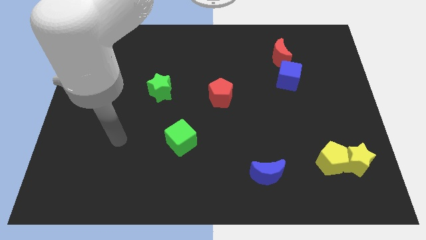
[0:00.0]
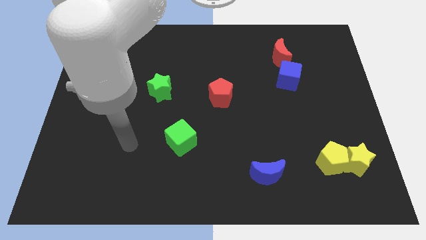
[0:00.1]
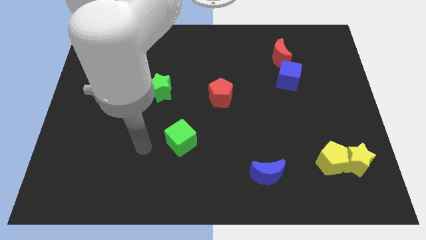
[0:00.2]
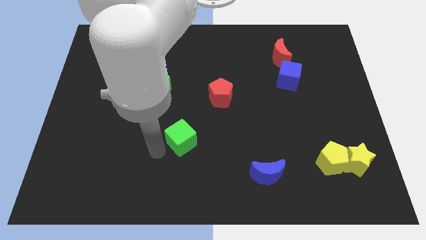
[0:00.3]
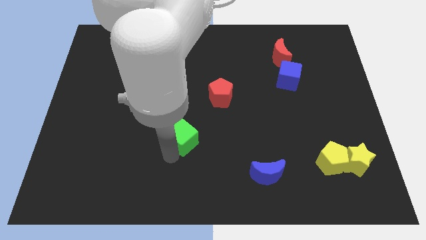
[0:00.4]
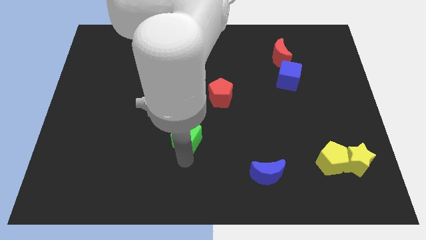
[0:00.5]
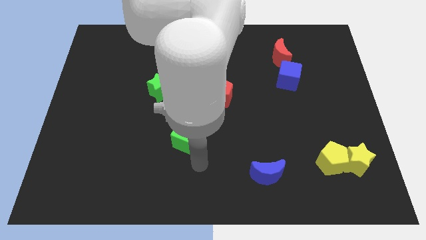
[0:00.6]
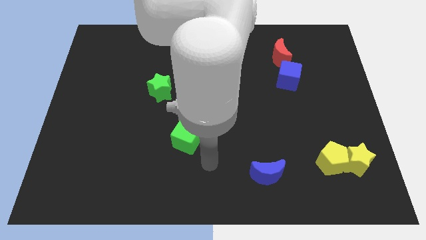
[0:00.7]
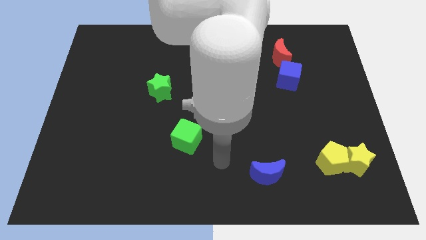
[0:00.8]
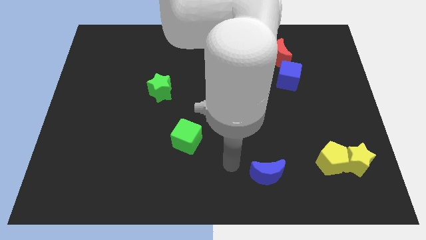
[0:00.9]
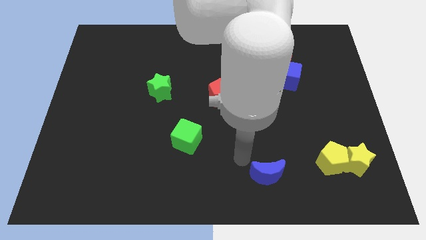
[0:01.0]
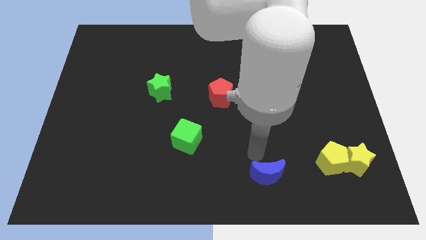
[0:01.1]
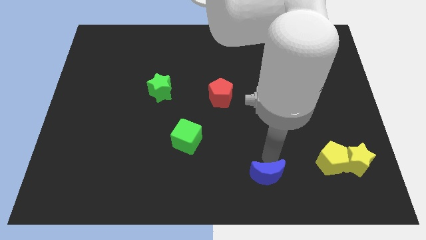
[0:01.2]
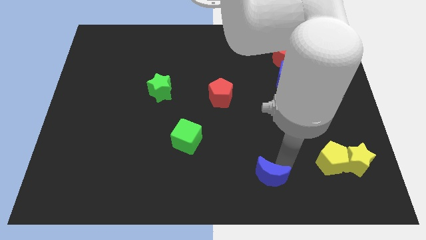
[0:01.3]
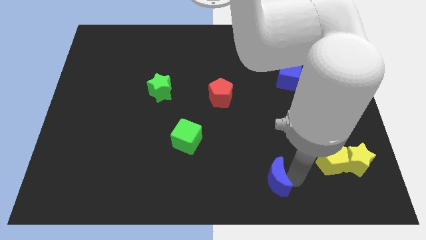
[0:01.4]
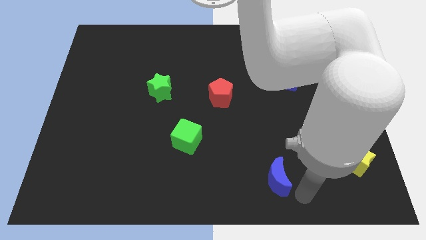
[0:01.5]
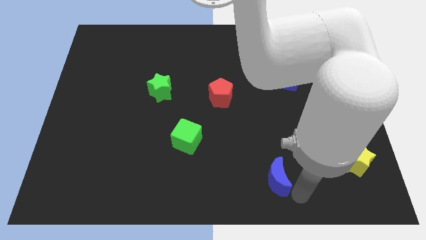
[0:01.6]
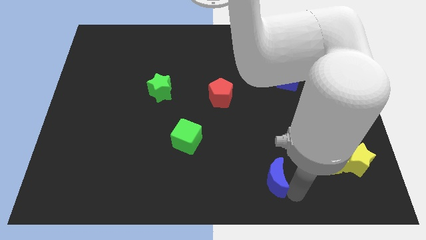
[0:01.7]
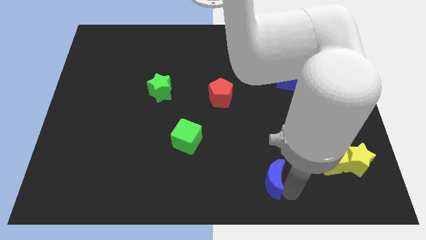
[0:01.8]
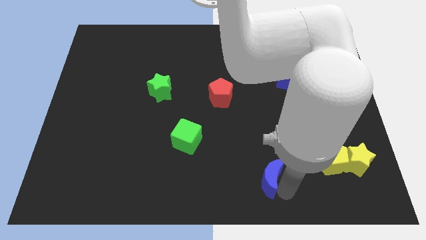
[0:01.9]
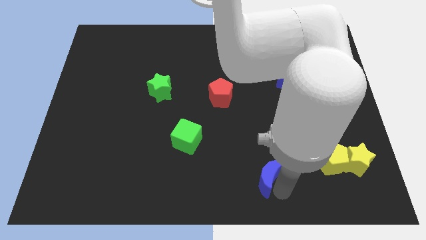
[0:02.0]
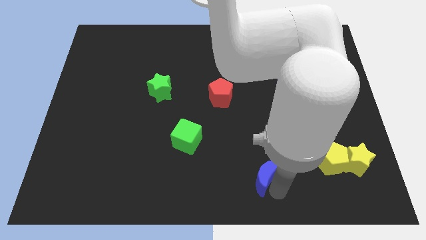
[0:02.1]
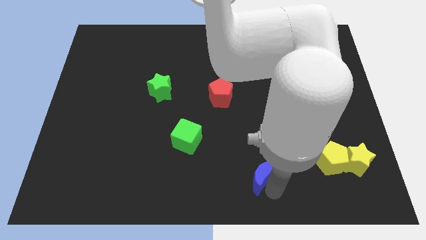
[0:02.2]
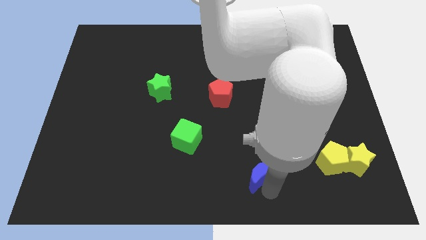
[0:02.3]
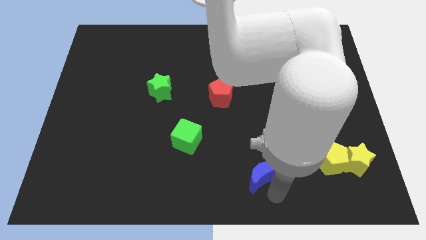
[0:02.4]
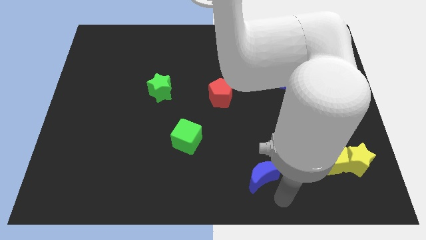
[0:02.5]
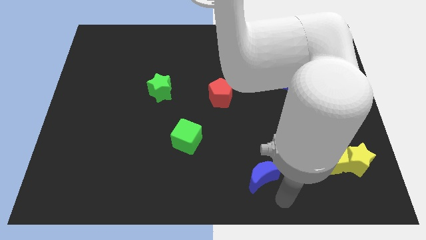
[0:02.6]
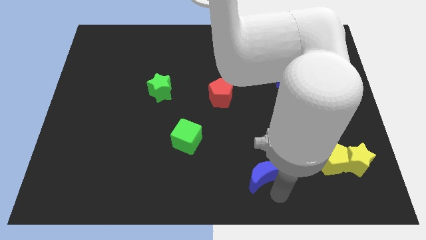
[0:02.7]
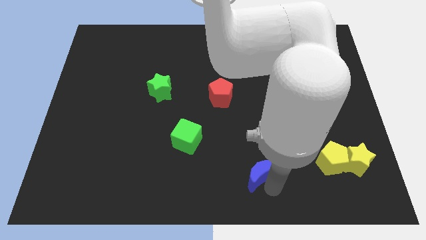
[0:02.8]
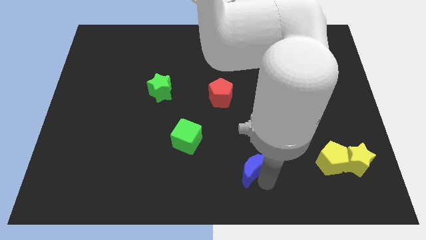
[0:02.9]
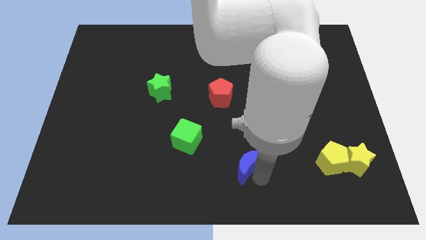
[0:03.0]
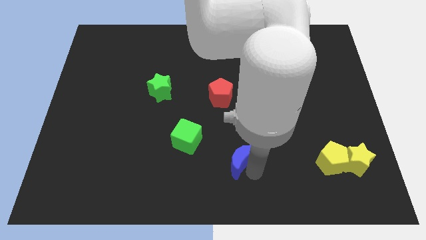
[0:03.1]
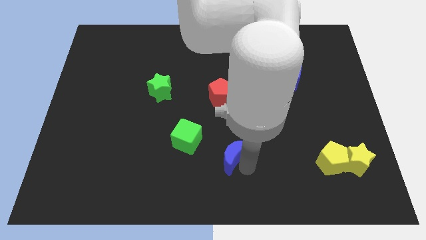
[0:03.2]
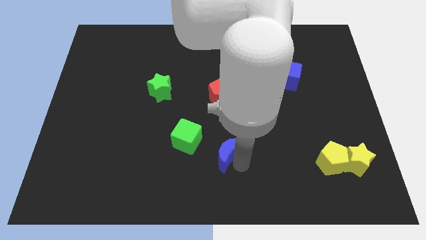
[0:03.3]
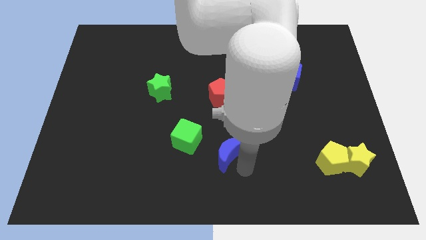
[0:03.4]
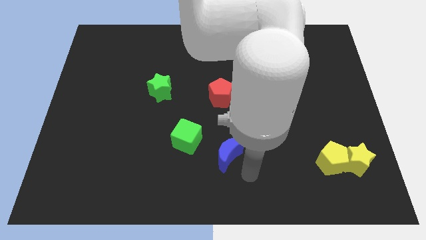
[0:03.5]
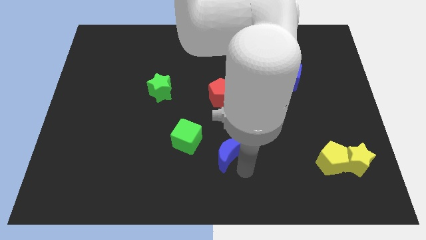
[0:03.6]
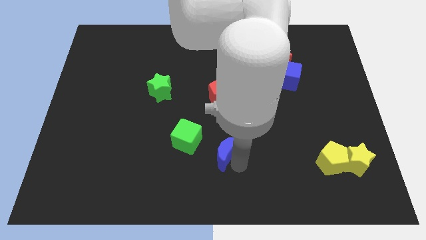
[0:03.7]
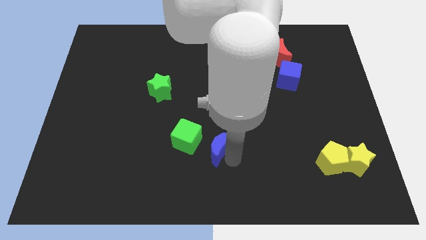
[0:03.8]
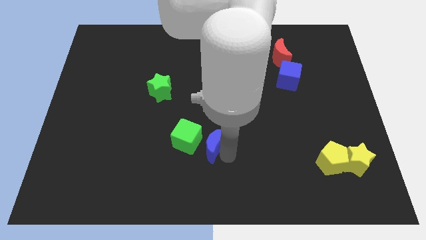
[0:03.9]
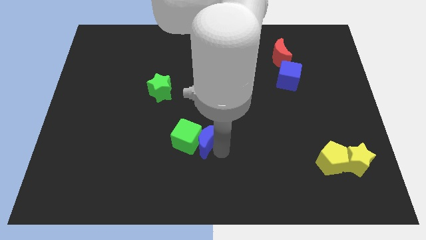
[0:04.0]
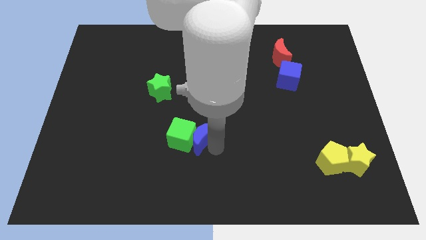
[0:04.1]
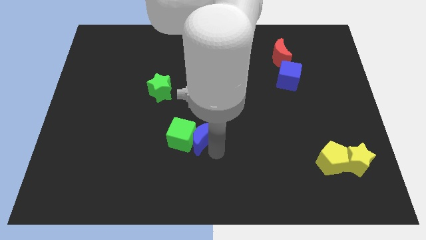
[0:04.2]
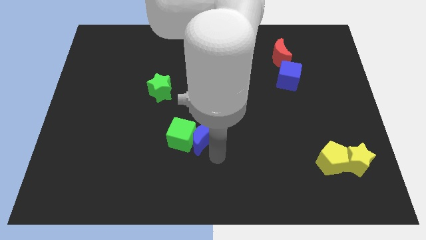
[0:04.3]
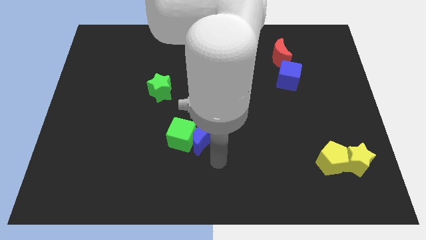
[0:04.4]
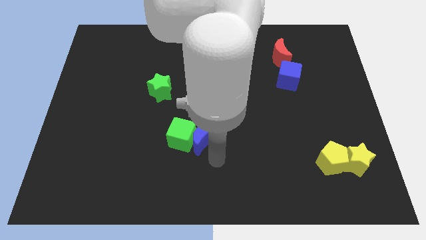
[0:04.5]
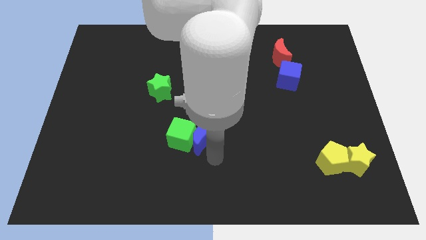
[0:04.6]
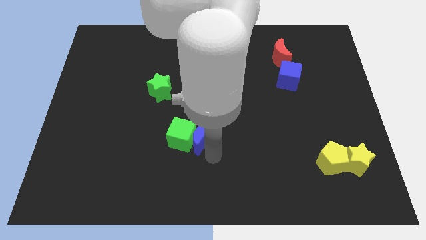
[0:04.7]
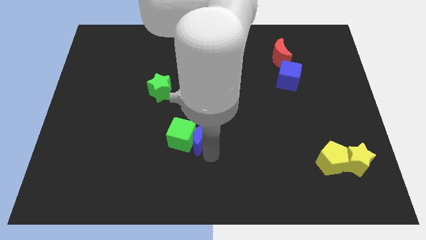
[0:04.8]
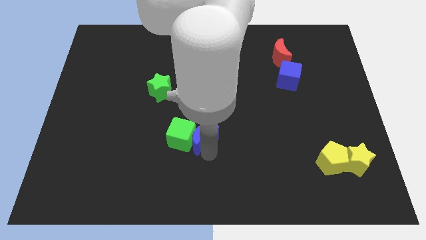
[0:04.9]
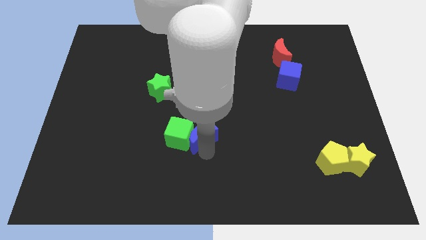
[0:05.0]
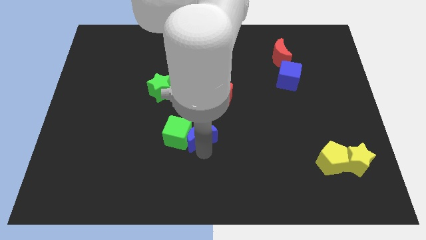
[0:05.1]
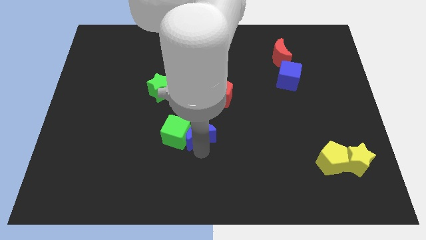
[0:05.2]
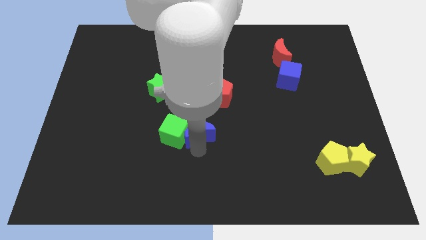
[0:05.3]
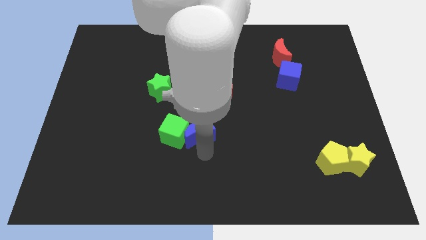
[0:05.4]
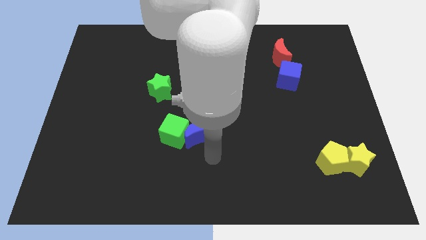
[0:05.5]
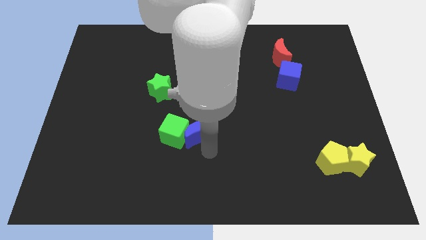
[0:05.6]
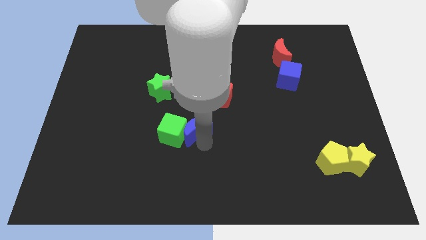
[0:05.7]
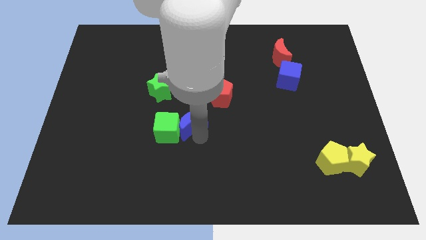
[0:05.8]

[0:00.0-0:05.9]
push the blue moon to the bottom right side of the green star
